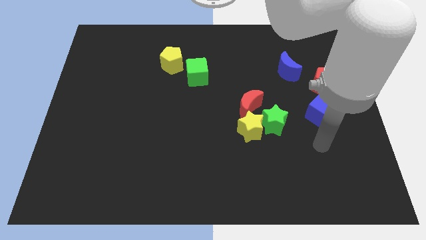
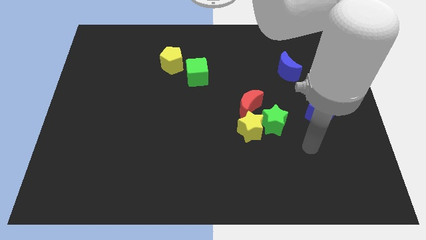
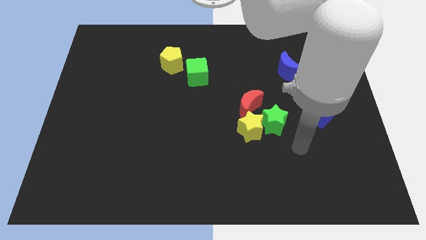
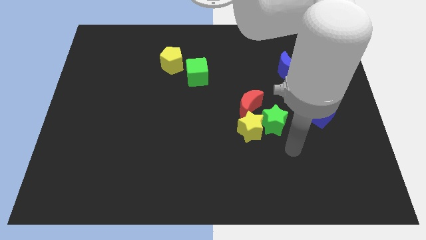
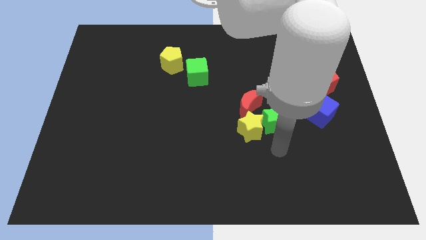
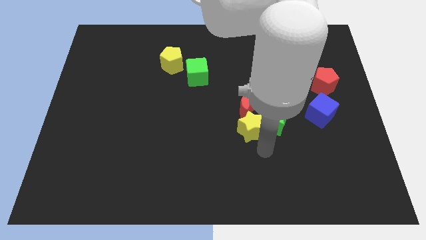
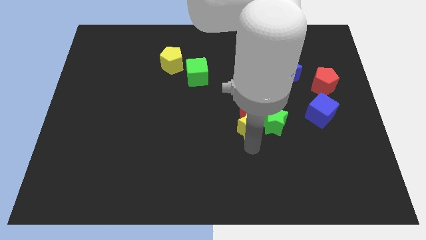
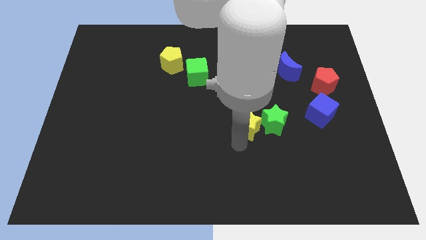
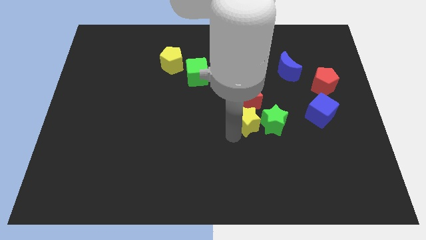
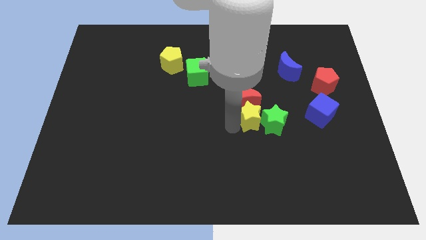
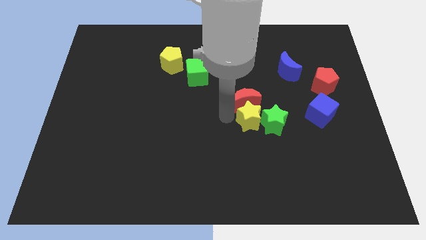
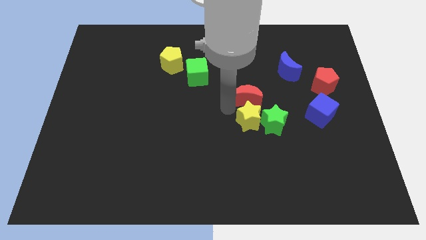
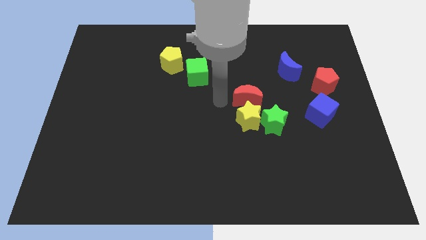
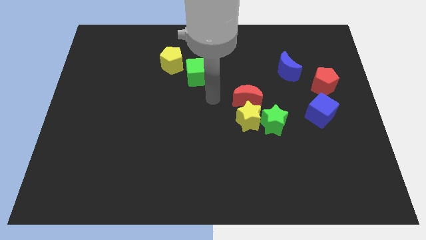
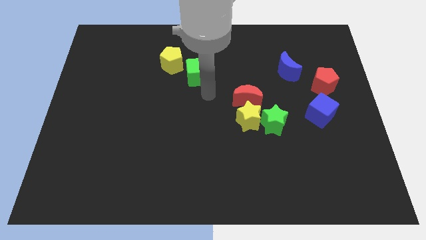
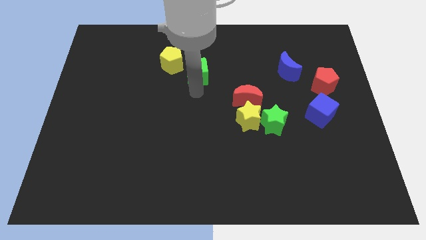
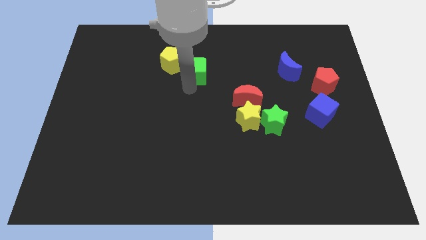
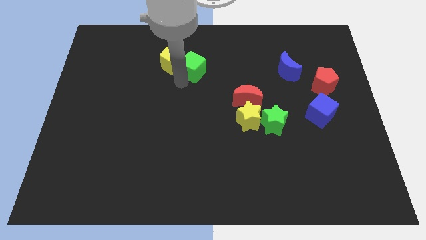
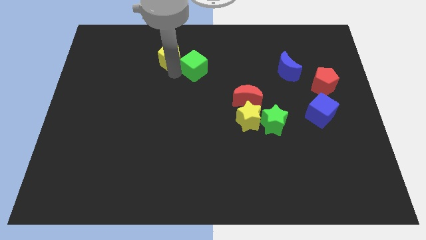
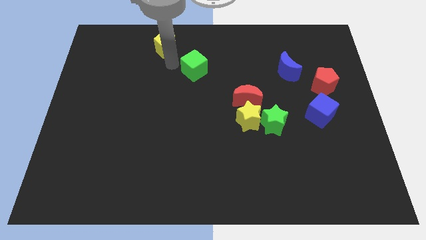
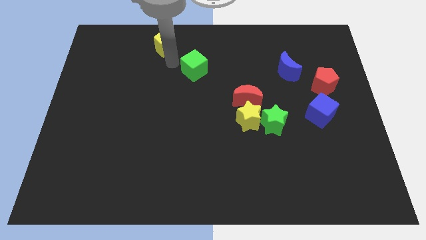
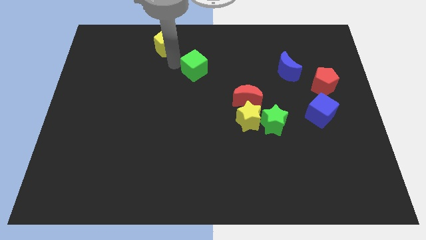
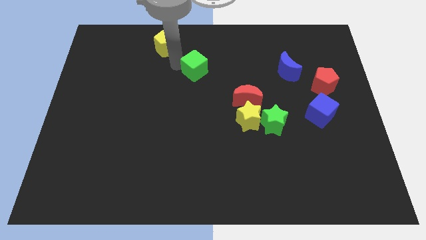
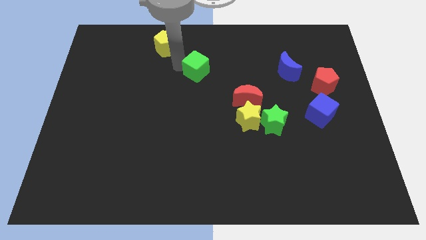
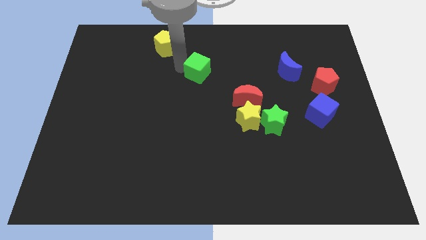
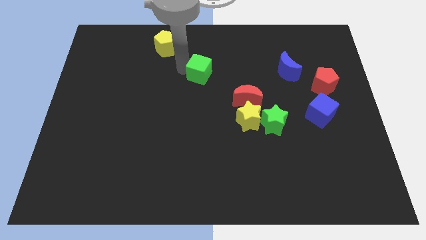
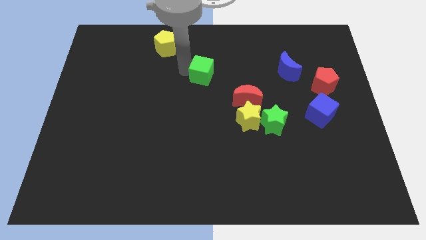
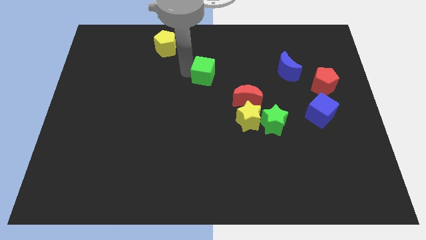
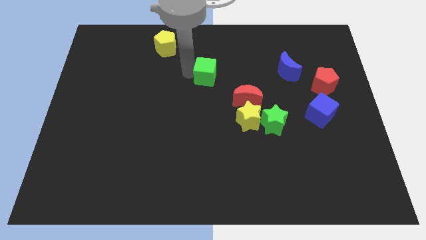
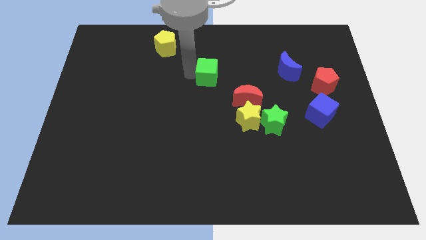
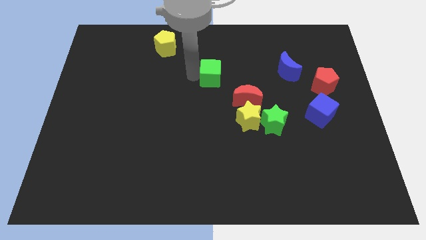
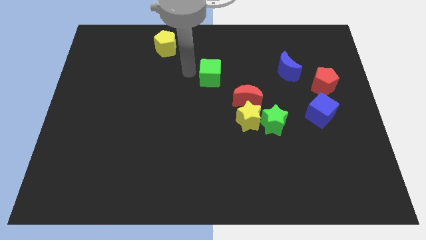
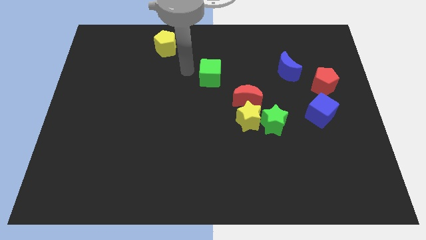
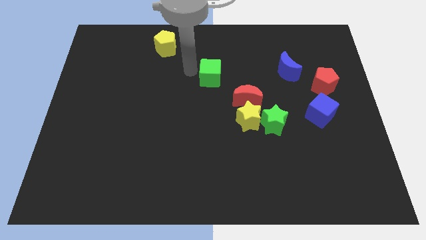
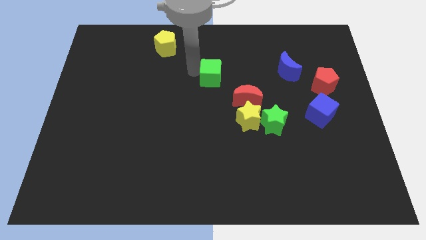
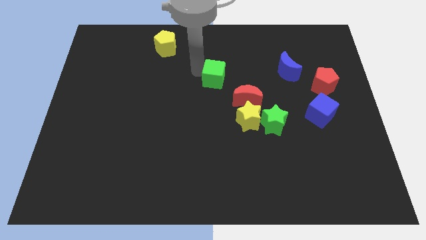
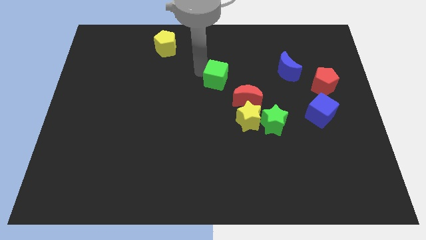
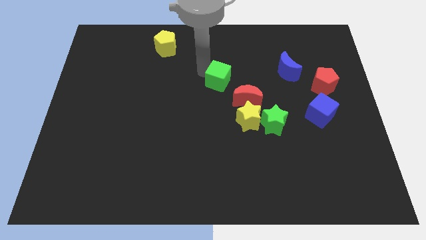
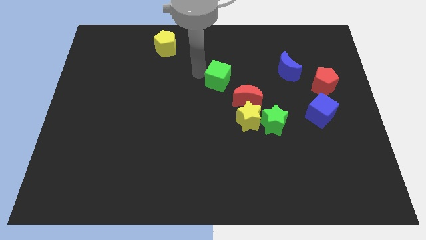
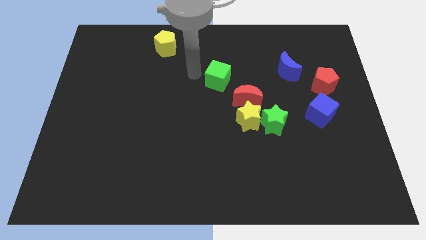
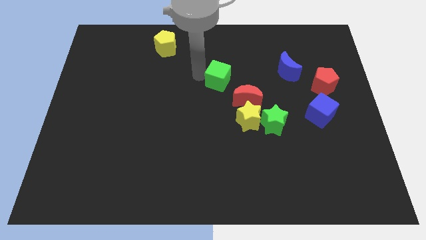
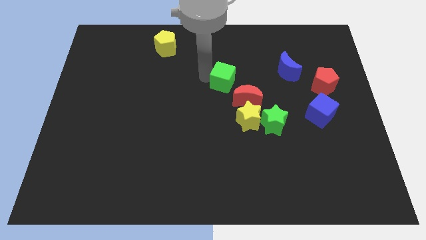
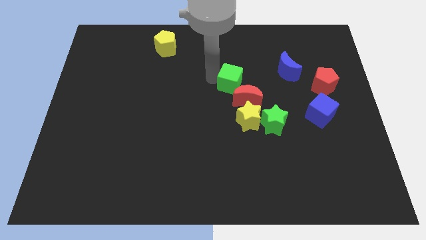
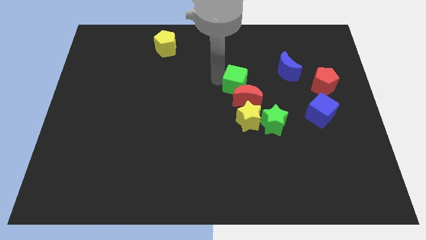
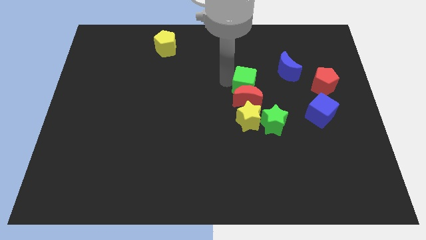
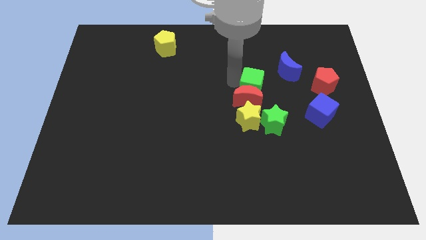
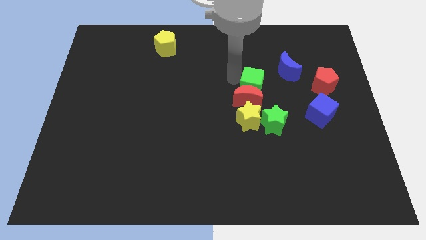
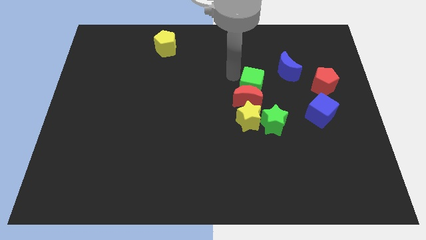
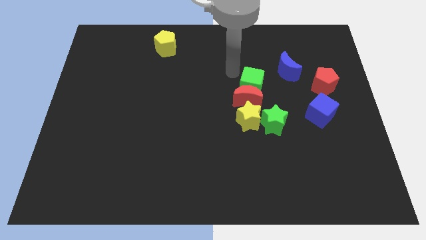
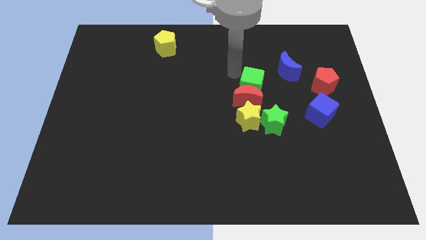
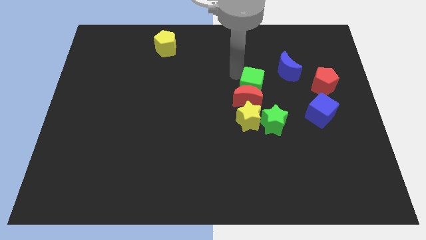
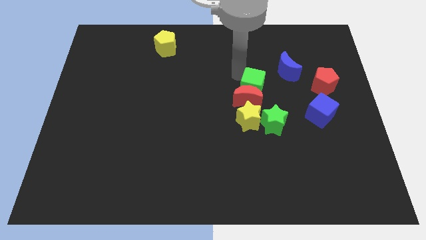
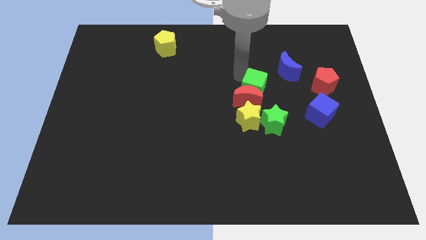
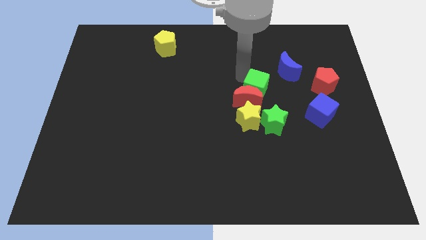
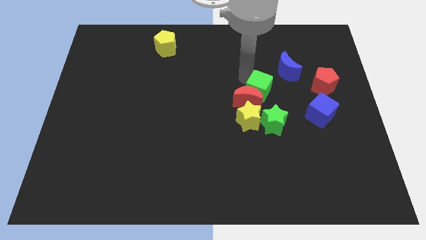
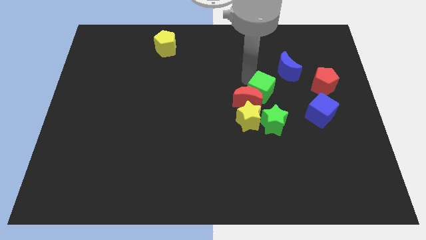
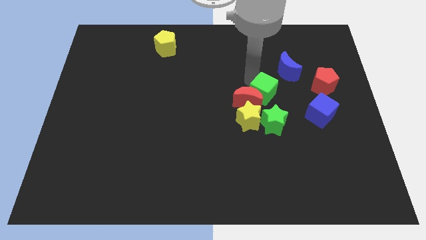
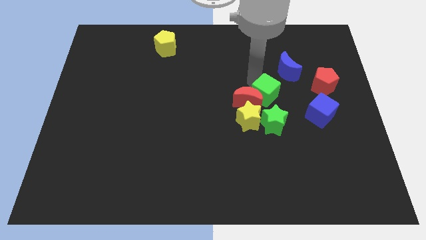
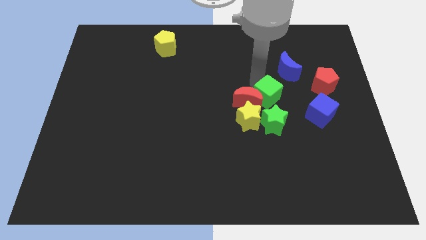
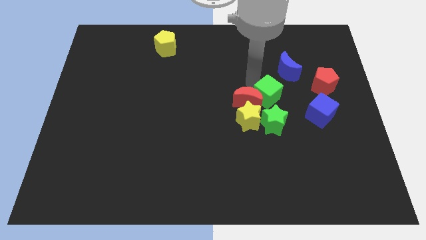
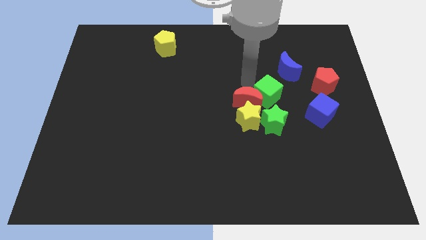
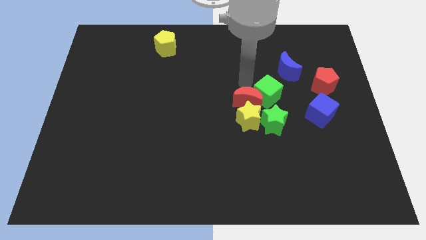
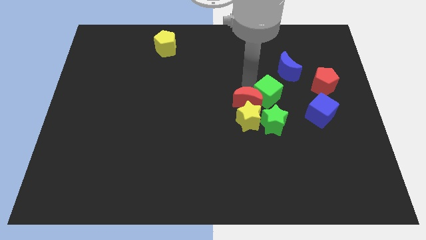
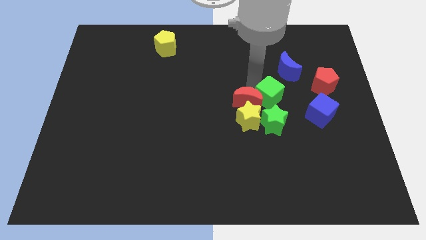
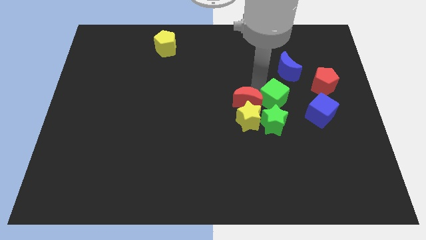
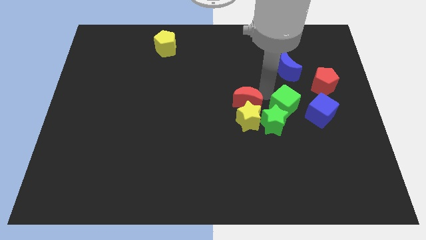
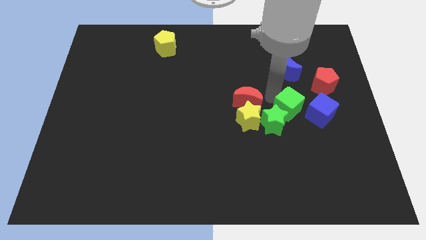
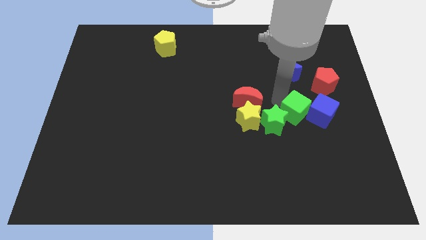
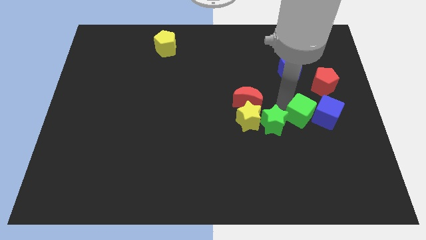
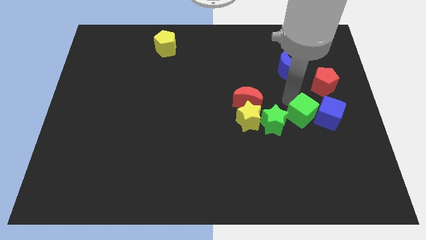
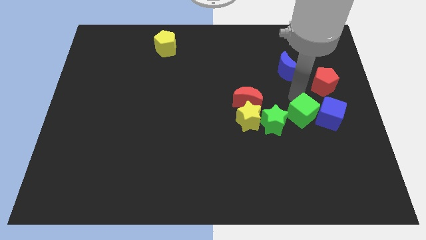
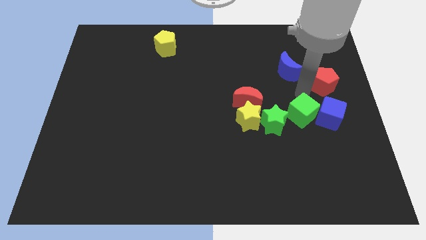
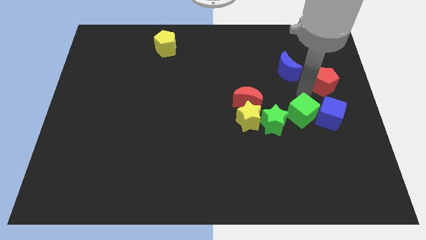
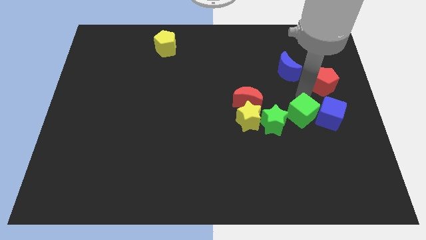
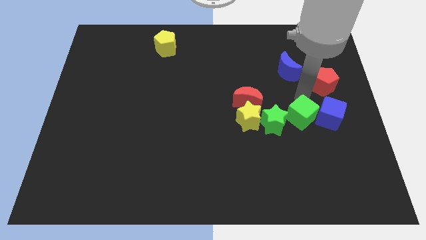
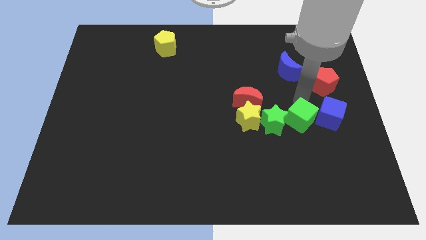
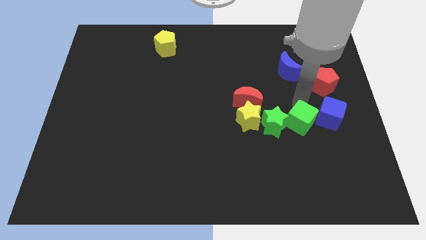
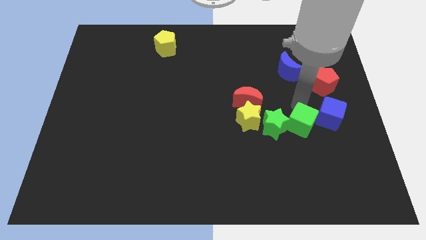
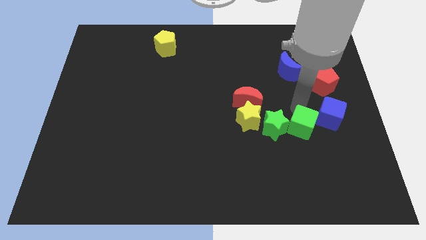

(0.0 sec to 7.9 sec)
slide the green cube diagonally down and to the right of the green star
